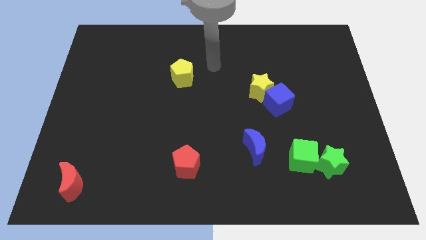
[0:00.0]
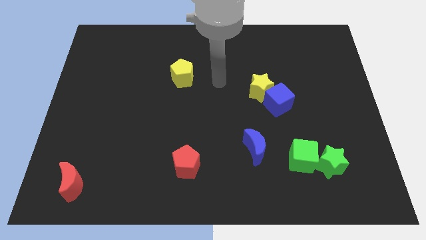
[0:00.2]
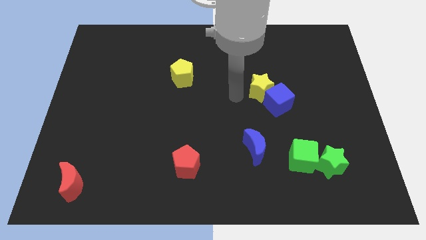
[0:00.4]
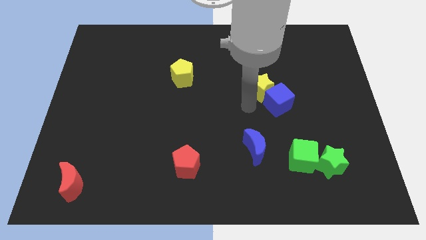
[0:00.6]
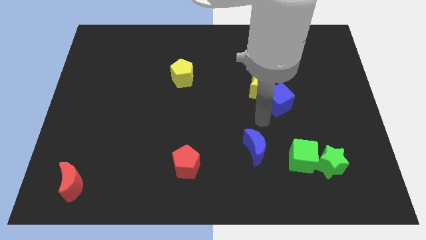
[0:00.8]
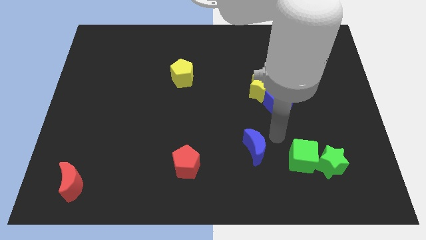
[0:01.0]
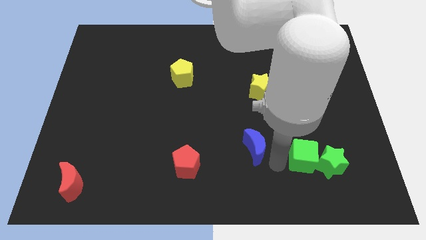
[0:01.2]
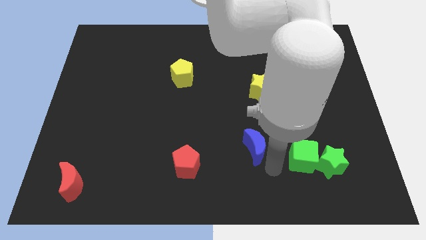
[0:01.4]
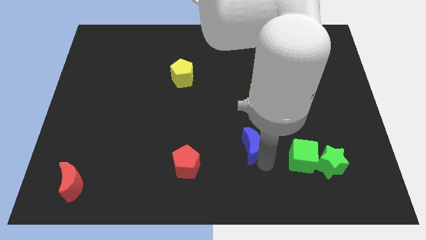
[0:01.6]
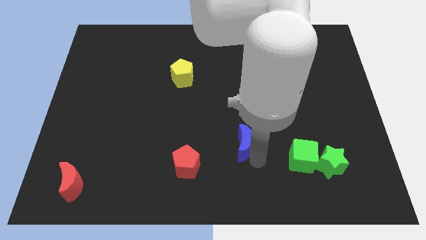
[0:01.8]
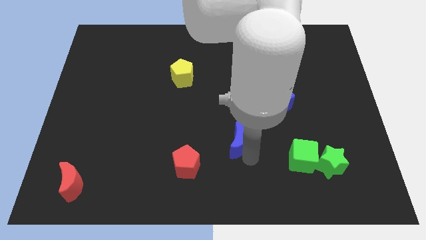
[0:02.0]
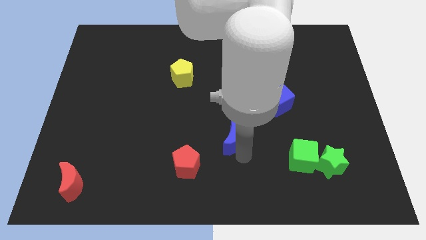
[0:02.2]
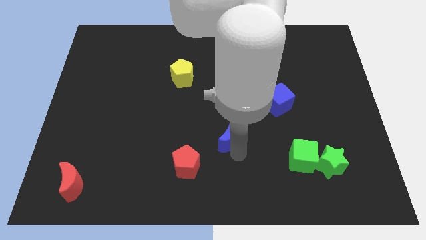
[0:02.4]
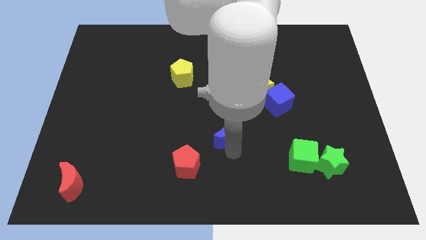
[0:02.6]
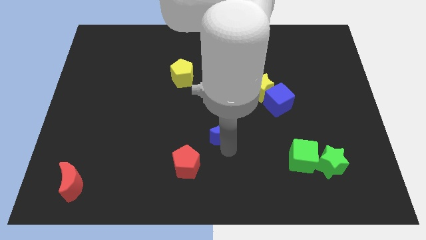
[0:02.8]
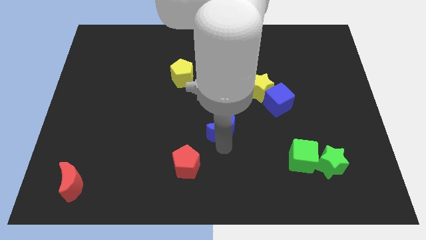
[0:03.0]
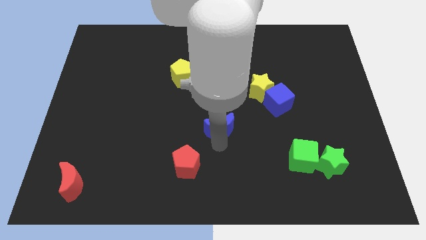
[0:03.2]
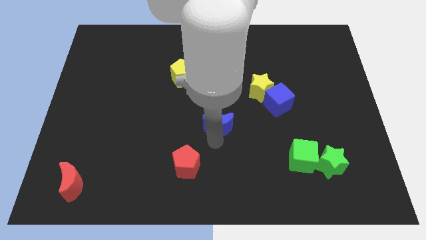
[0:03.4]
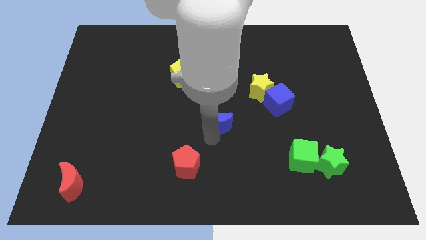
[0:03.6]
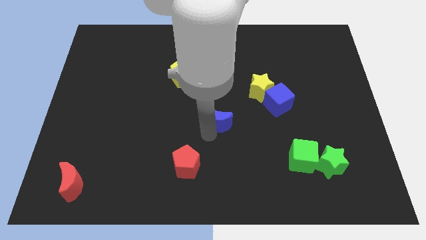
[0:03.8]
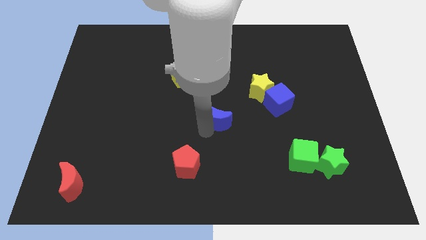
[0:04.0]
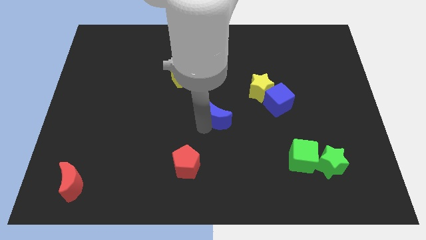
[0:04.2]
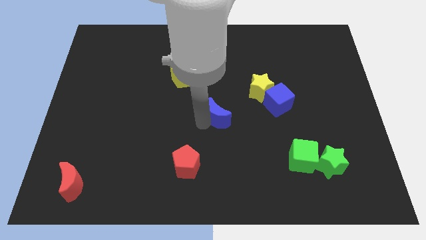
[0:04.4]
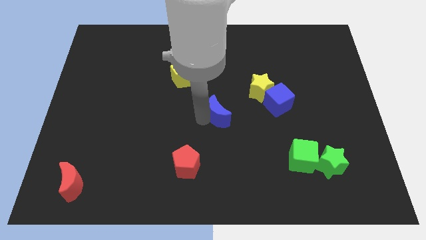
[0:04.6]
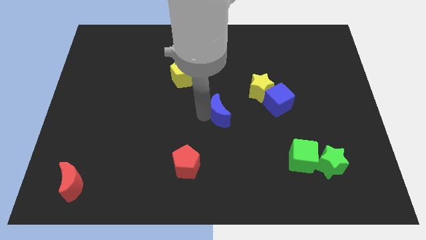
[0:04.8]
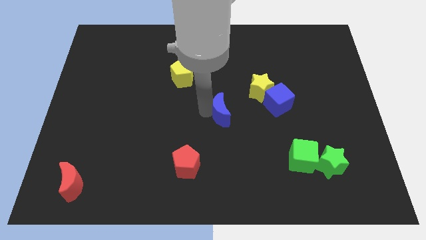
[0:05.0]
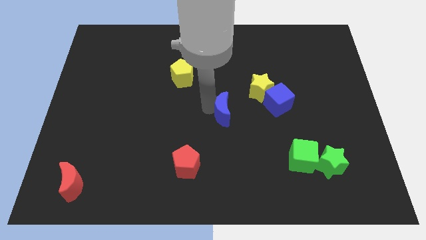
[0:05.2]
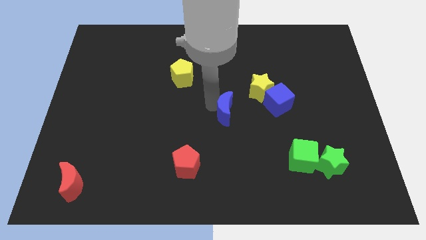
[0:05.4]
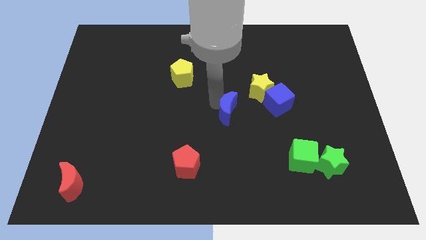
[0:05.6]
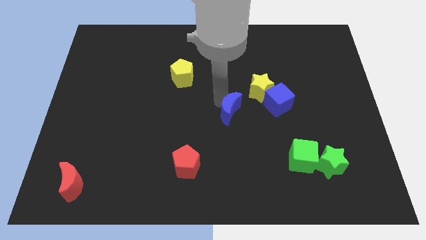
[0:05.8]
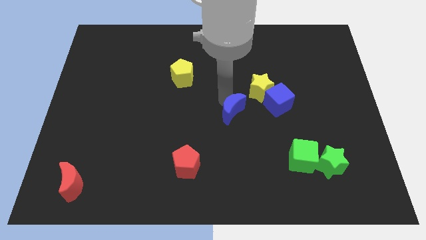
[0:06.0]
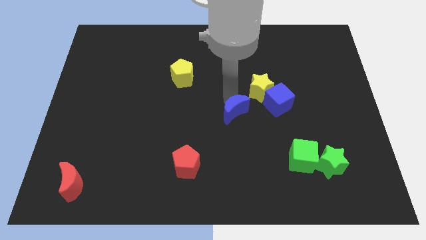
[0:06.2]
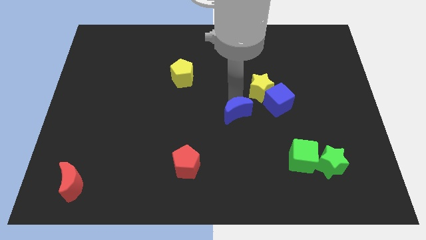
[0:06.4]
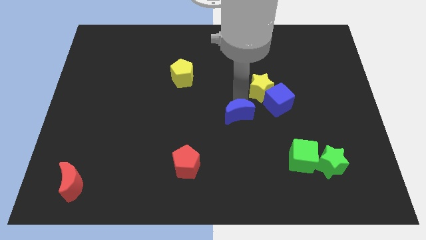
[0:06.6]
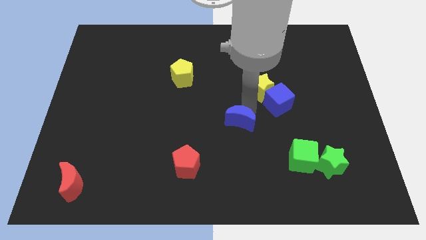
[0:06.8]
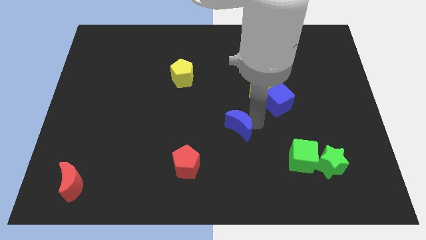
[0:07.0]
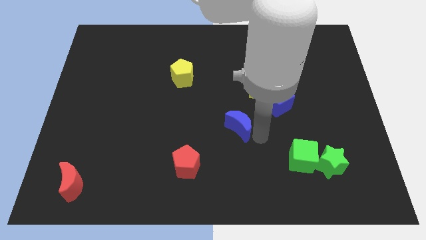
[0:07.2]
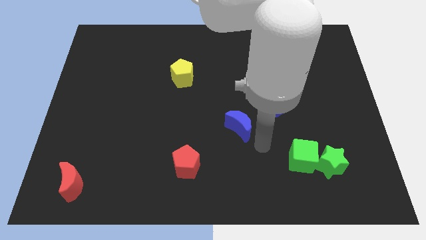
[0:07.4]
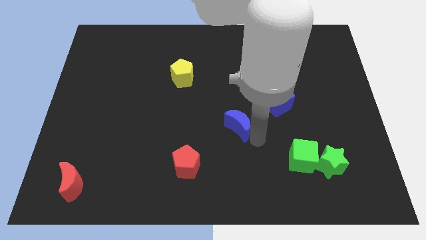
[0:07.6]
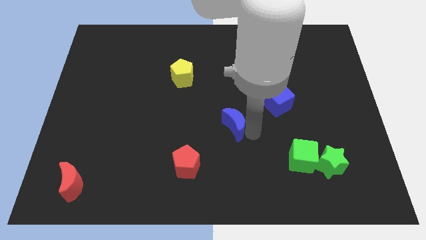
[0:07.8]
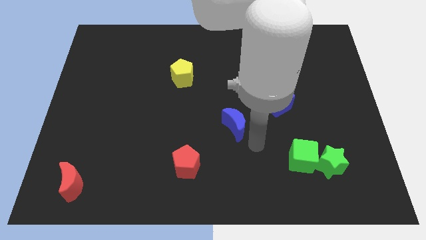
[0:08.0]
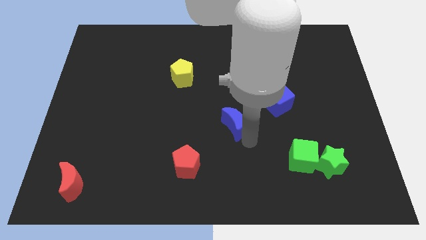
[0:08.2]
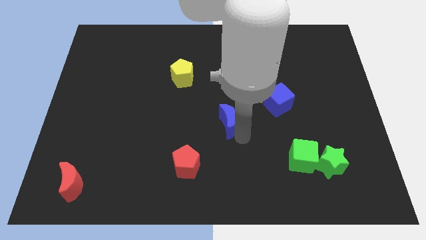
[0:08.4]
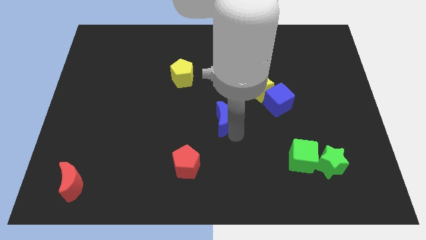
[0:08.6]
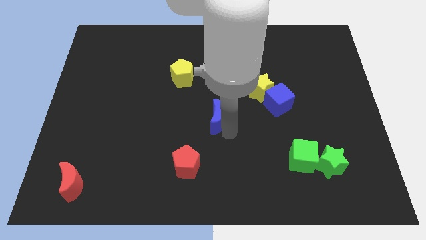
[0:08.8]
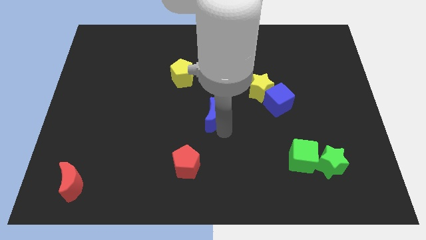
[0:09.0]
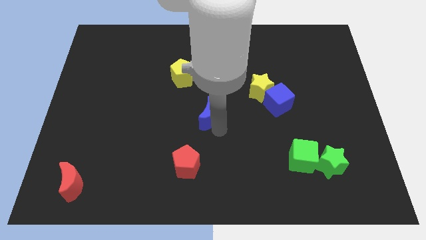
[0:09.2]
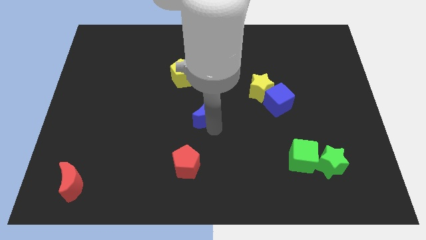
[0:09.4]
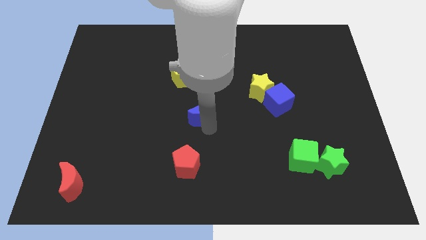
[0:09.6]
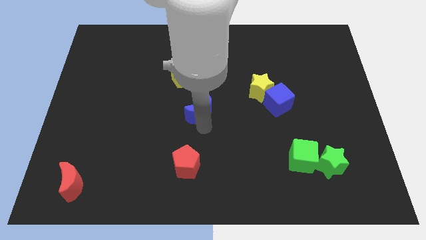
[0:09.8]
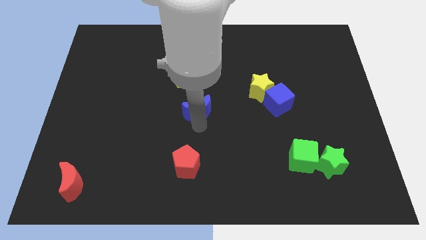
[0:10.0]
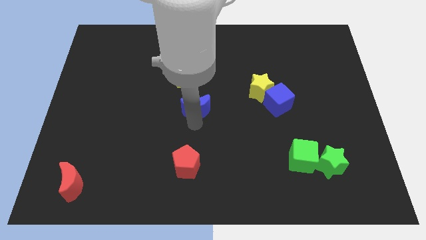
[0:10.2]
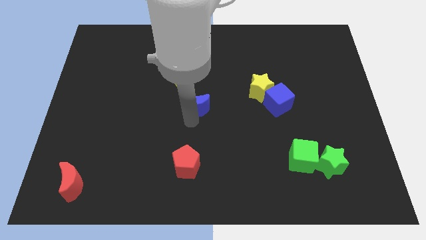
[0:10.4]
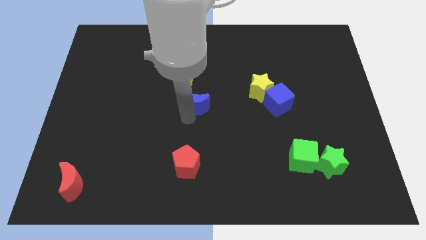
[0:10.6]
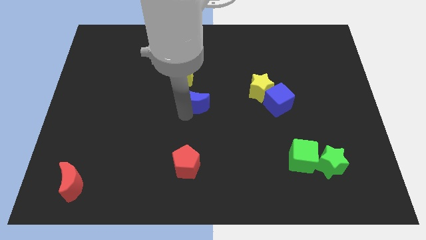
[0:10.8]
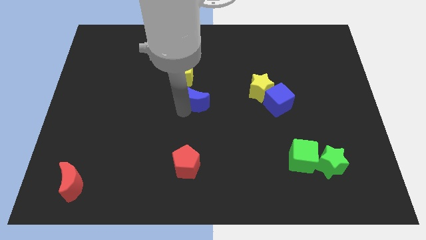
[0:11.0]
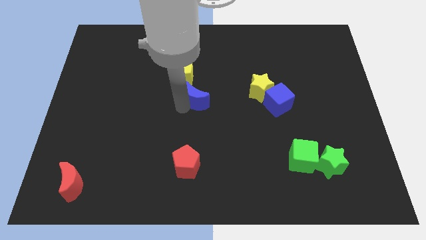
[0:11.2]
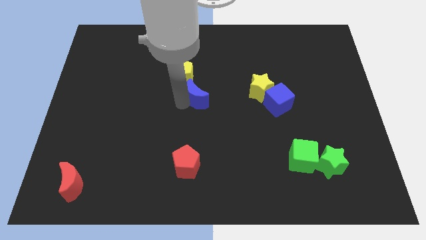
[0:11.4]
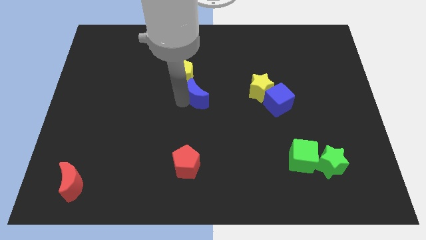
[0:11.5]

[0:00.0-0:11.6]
slide the blue moon upwards and then left

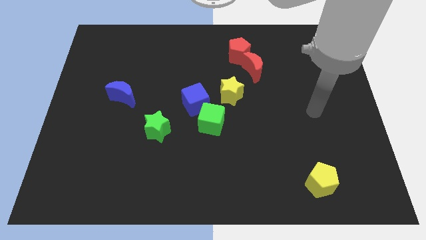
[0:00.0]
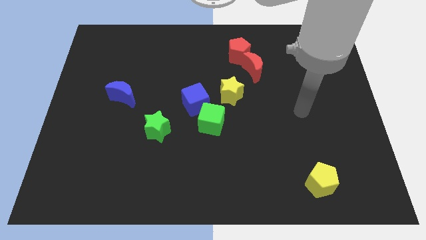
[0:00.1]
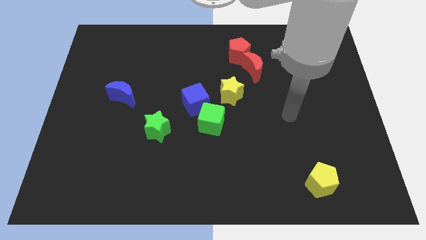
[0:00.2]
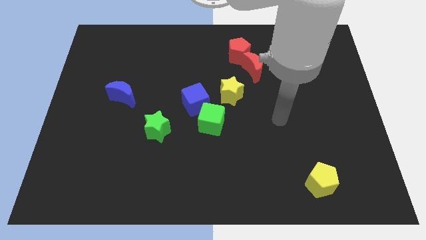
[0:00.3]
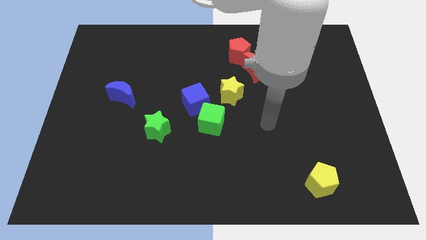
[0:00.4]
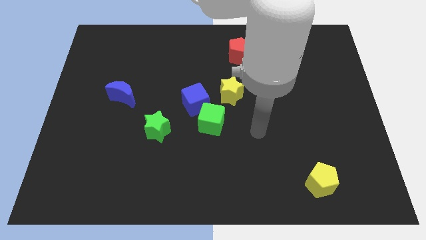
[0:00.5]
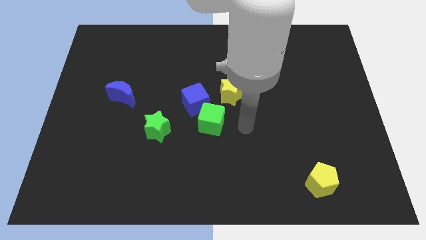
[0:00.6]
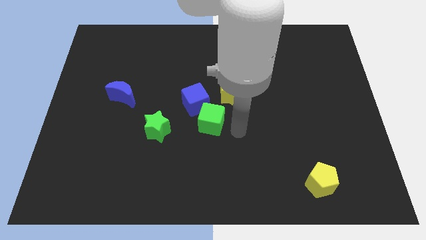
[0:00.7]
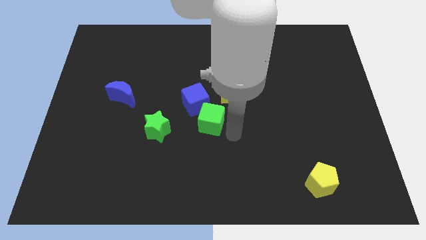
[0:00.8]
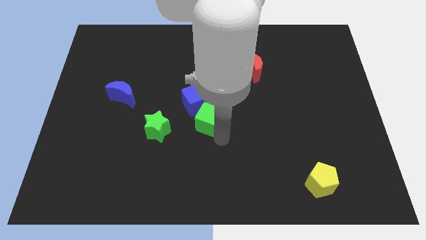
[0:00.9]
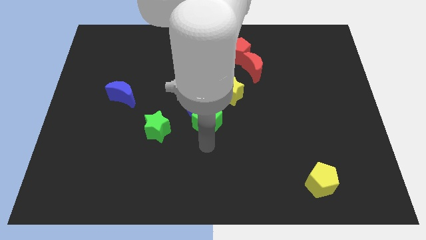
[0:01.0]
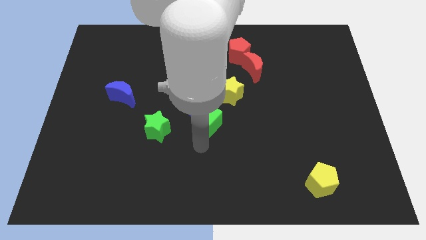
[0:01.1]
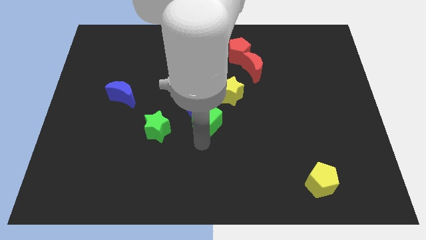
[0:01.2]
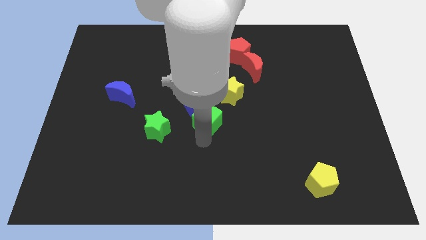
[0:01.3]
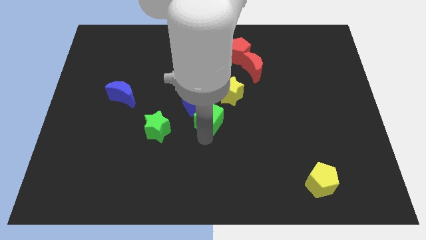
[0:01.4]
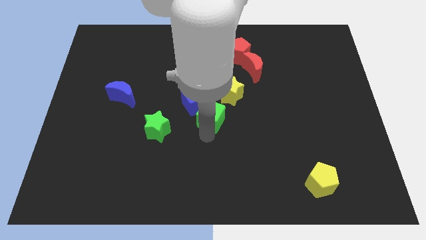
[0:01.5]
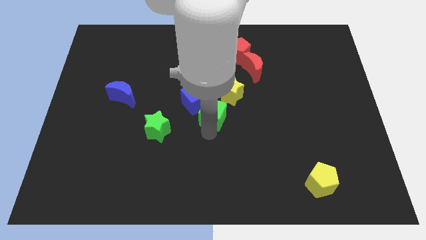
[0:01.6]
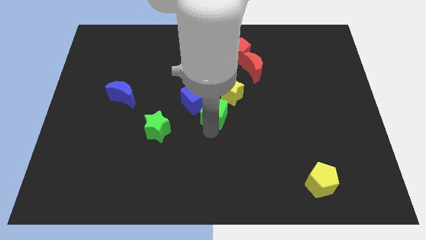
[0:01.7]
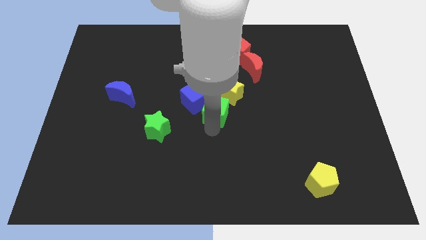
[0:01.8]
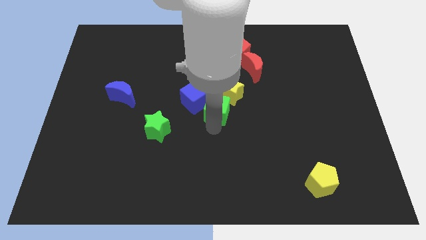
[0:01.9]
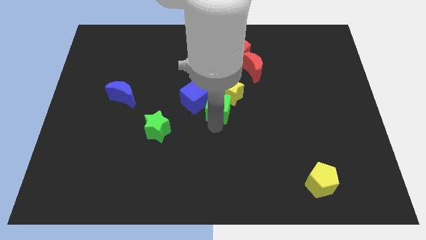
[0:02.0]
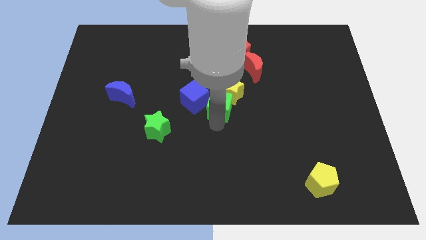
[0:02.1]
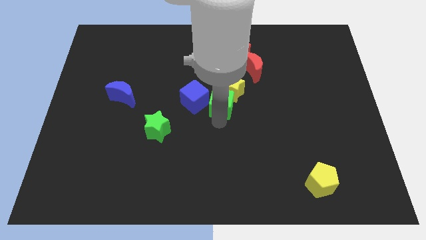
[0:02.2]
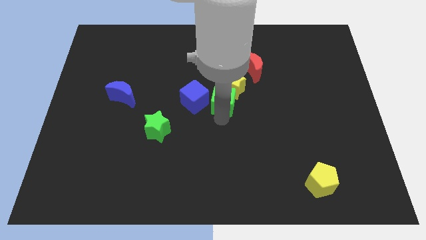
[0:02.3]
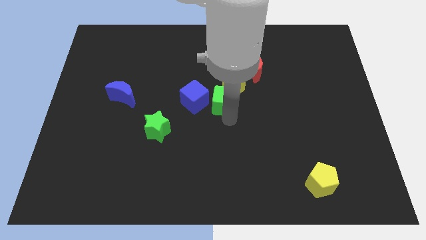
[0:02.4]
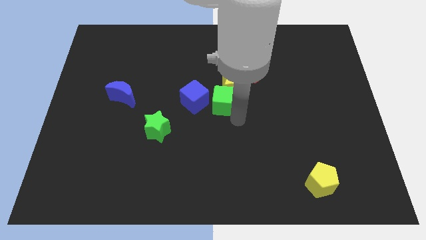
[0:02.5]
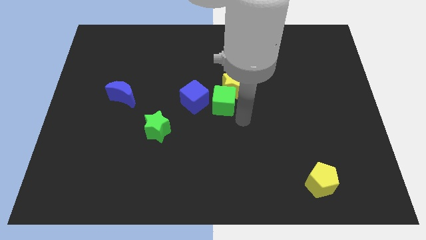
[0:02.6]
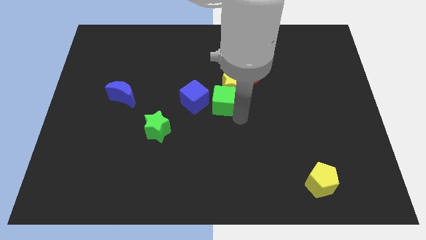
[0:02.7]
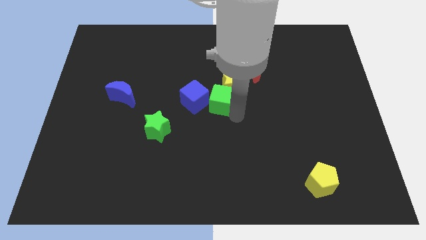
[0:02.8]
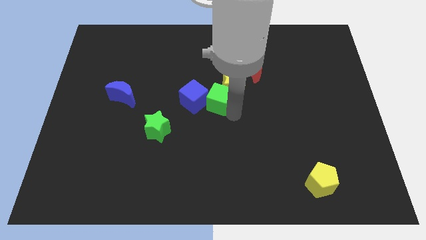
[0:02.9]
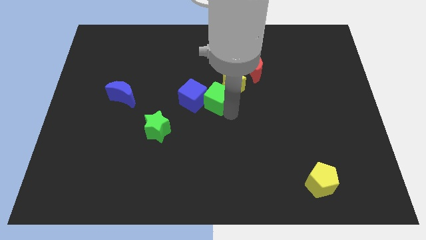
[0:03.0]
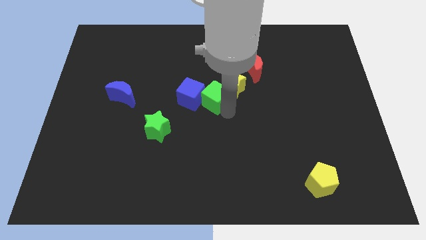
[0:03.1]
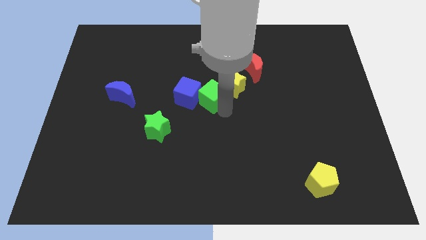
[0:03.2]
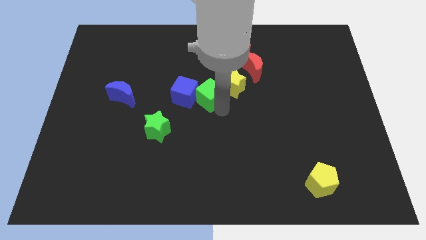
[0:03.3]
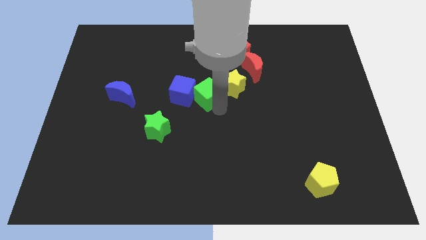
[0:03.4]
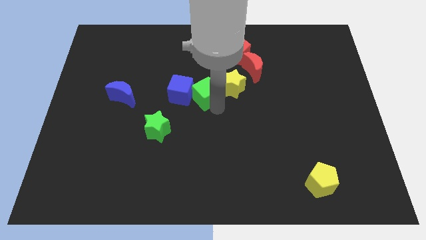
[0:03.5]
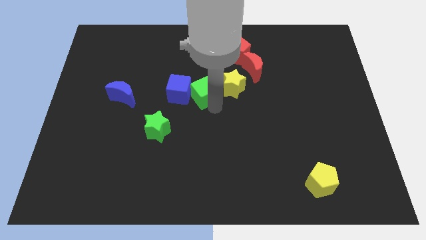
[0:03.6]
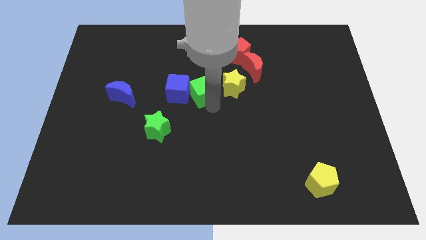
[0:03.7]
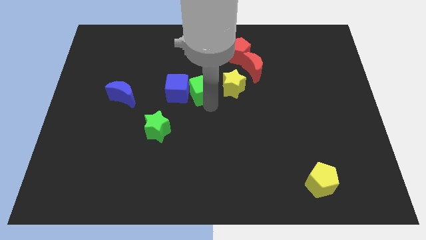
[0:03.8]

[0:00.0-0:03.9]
move the green cube a bit diagonally up and left
